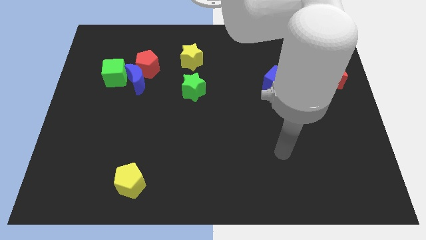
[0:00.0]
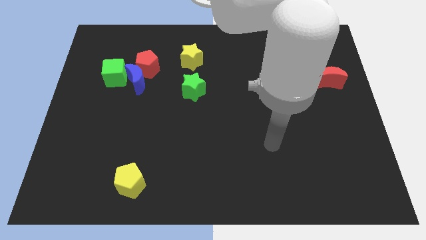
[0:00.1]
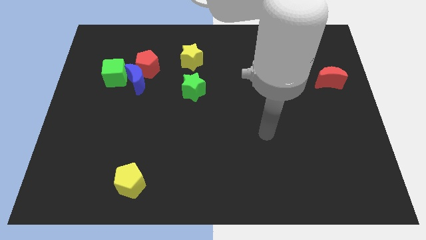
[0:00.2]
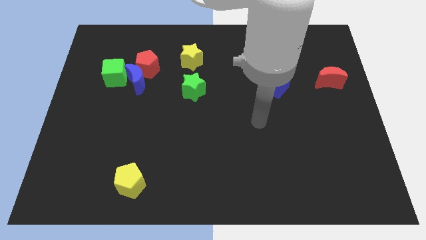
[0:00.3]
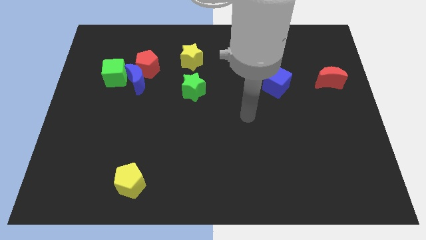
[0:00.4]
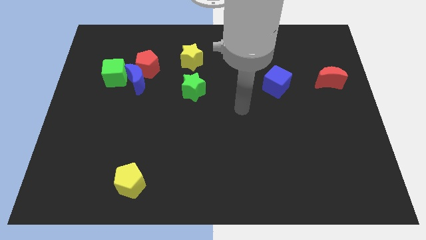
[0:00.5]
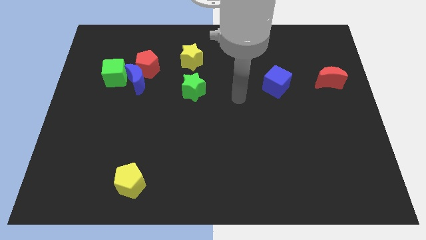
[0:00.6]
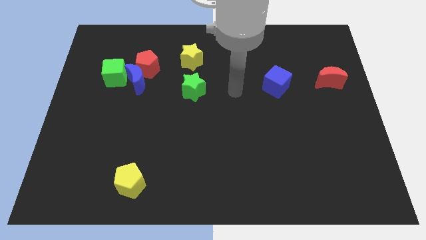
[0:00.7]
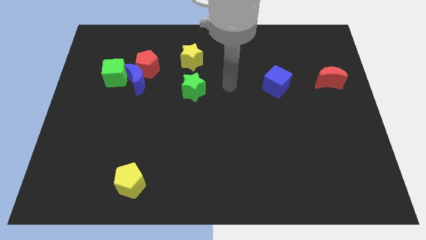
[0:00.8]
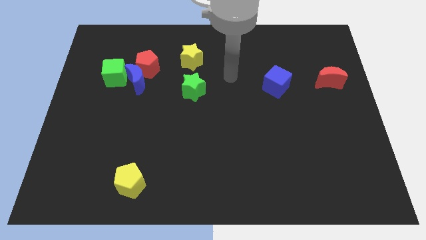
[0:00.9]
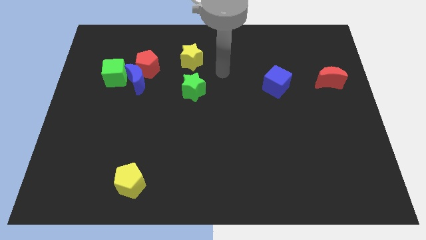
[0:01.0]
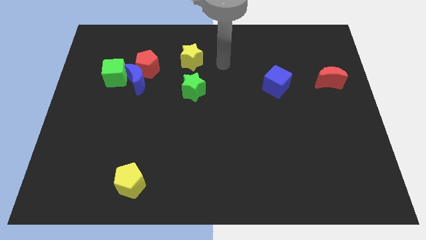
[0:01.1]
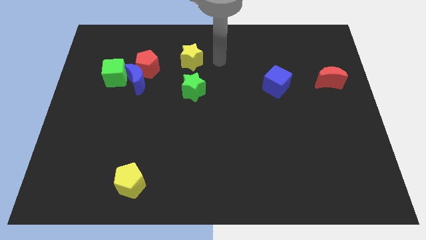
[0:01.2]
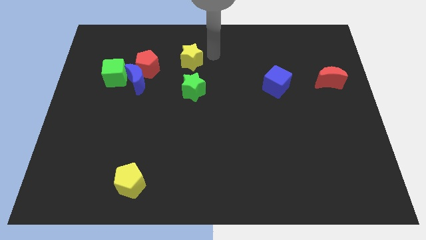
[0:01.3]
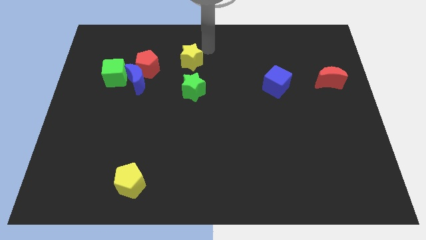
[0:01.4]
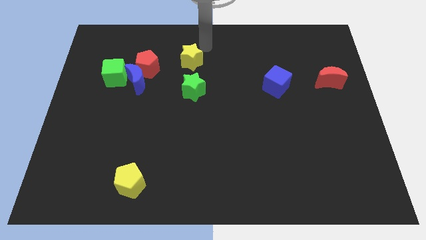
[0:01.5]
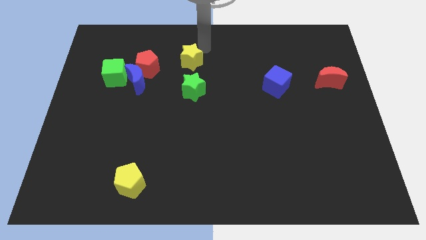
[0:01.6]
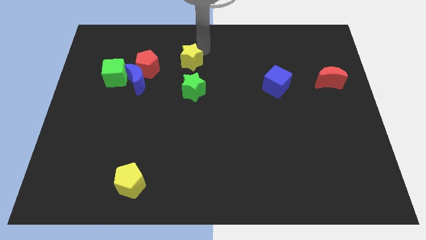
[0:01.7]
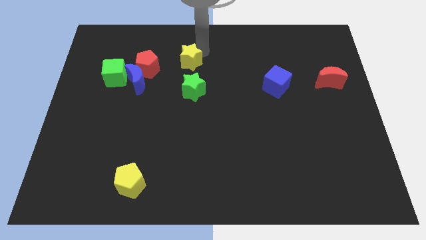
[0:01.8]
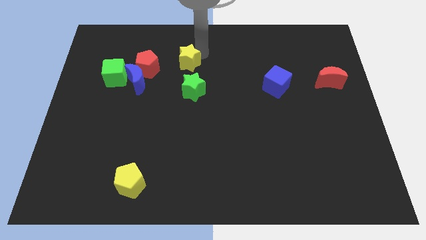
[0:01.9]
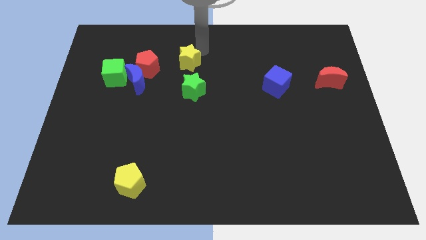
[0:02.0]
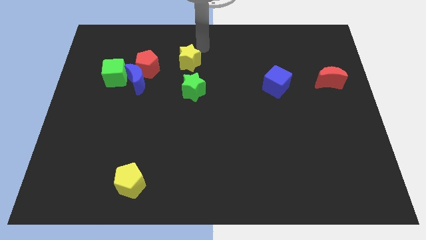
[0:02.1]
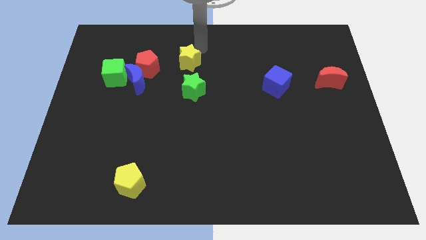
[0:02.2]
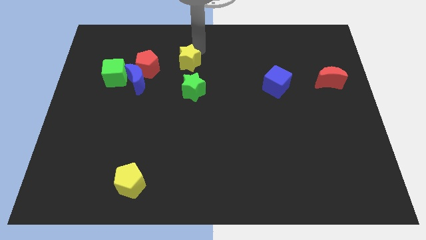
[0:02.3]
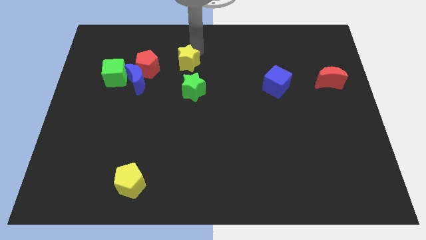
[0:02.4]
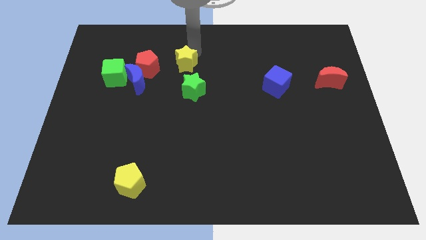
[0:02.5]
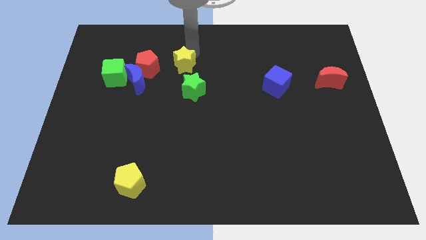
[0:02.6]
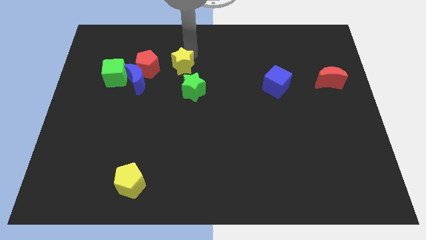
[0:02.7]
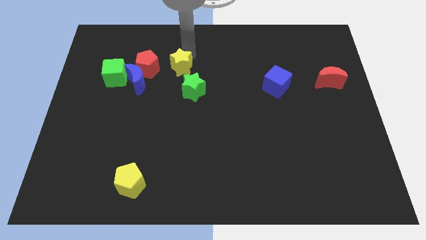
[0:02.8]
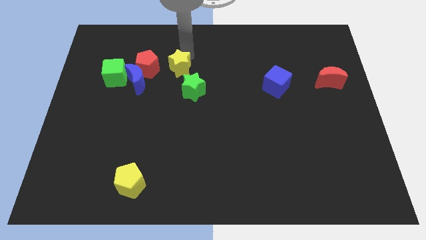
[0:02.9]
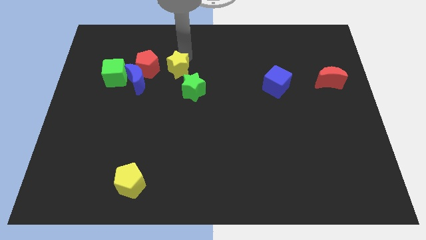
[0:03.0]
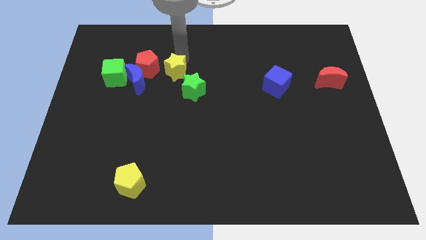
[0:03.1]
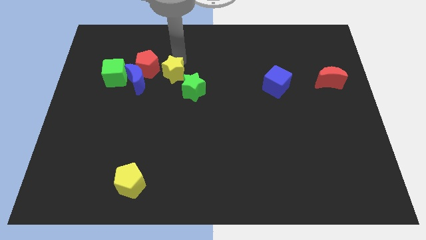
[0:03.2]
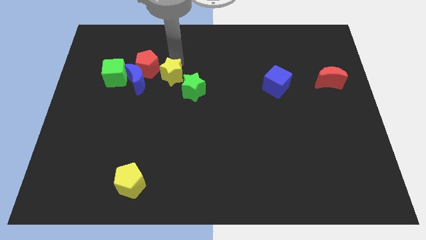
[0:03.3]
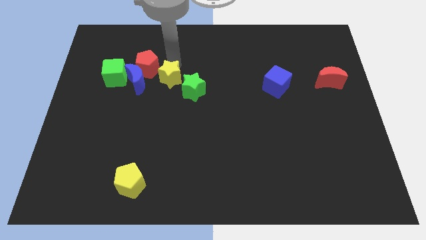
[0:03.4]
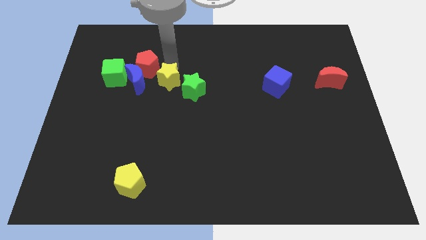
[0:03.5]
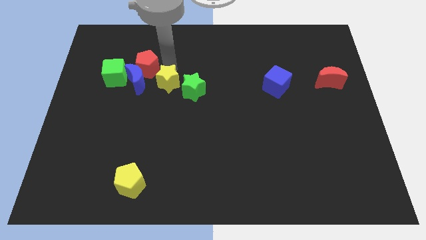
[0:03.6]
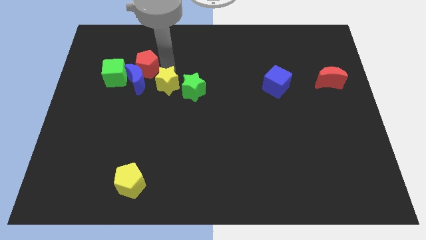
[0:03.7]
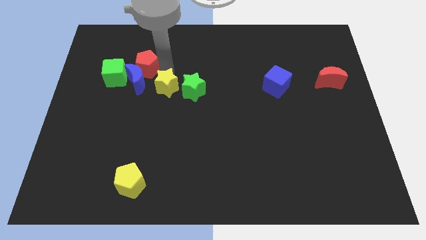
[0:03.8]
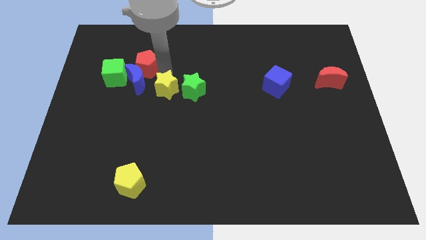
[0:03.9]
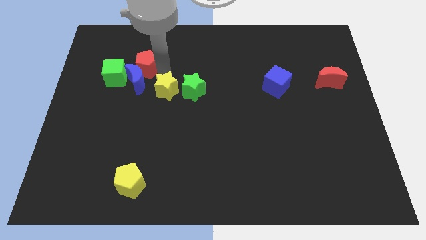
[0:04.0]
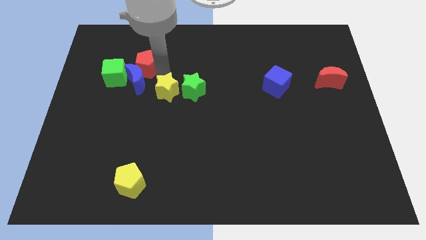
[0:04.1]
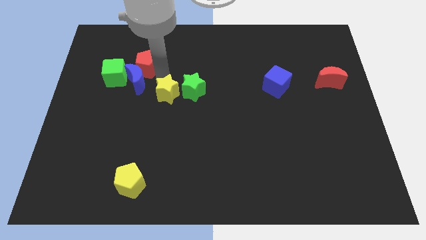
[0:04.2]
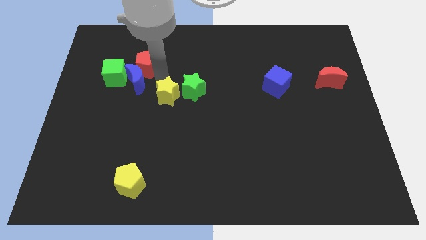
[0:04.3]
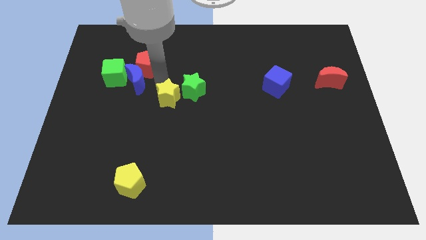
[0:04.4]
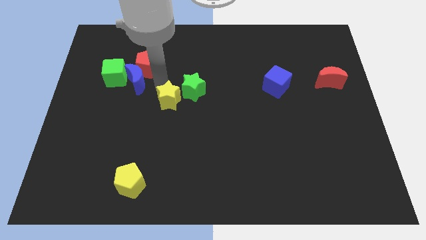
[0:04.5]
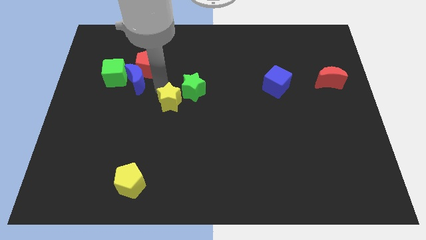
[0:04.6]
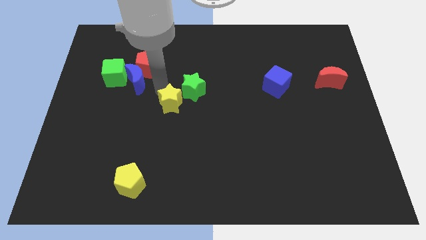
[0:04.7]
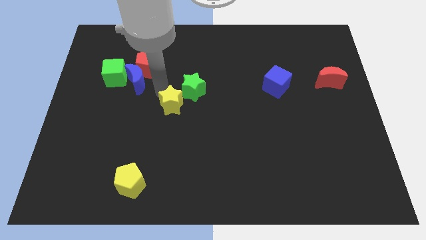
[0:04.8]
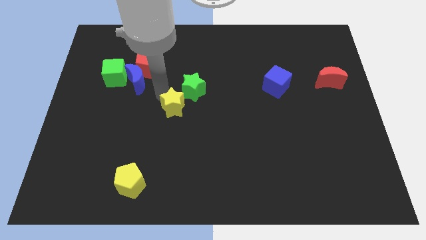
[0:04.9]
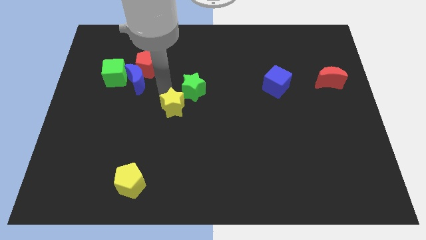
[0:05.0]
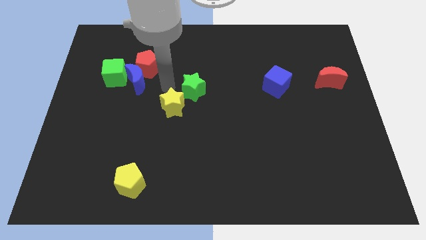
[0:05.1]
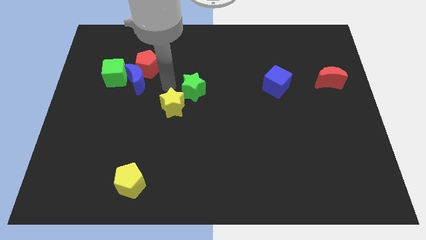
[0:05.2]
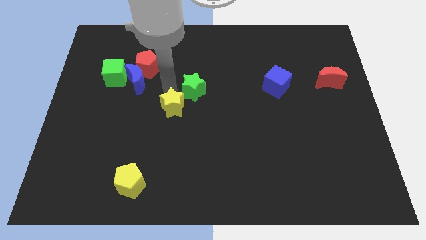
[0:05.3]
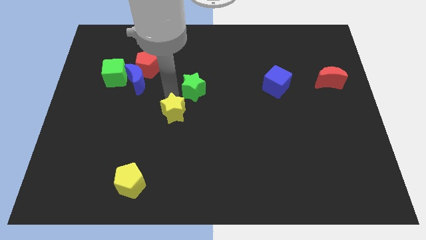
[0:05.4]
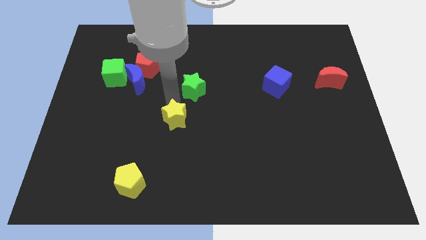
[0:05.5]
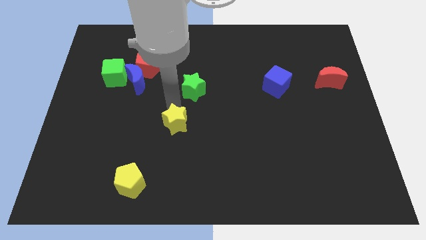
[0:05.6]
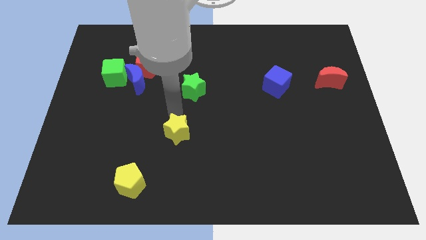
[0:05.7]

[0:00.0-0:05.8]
slide the yellow star downwards

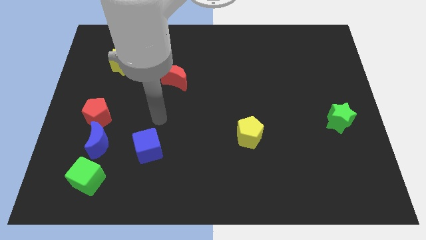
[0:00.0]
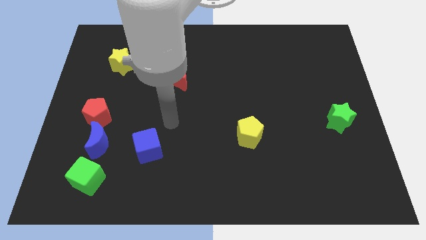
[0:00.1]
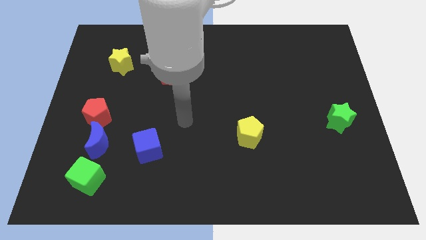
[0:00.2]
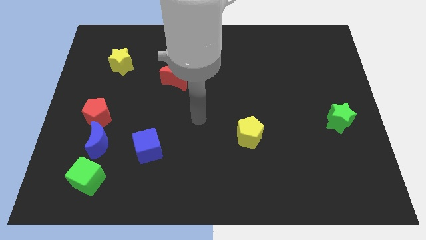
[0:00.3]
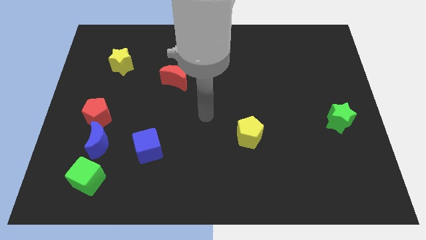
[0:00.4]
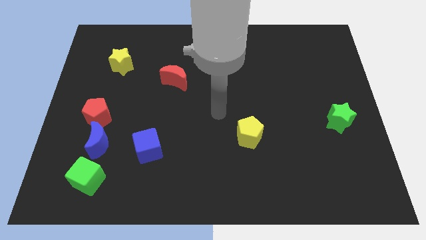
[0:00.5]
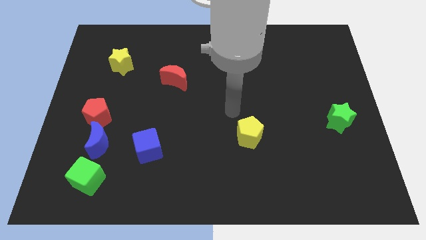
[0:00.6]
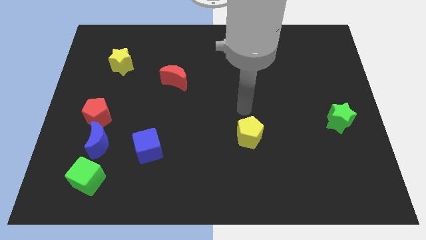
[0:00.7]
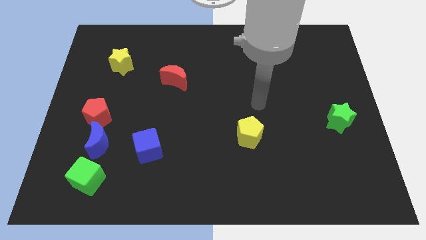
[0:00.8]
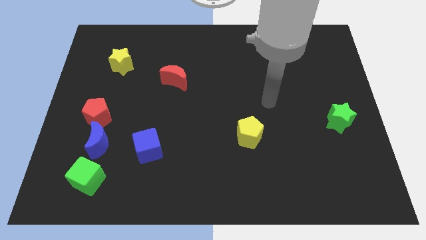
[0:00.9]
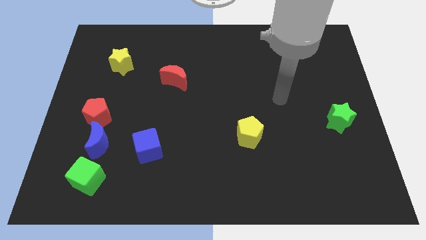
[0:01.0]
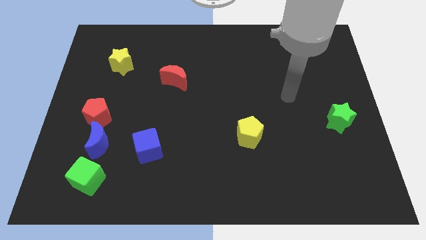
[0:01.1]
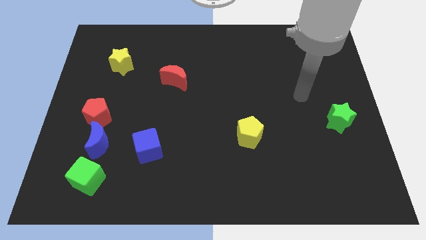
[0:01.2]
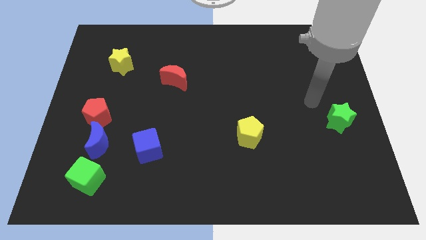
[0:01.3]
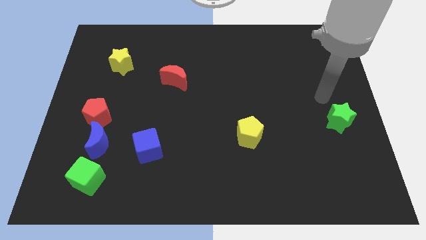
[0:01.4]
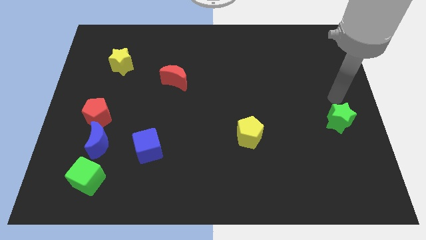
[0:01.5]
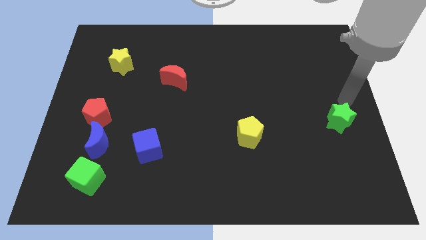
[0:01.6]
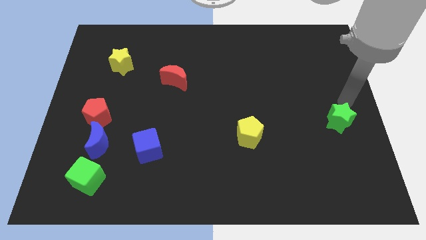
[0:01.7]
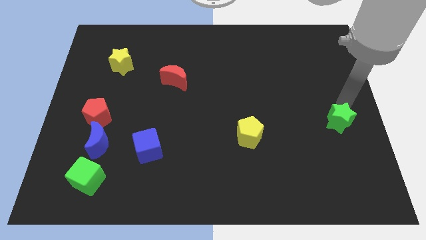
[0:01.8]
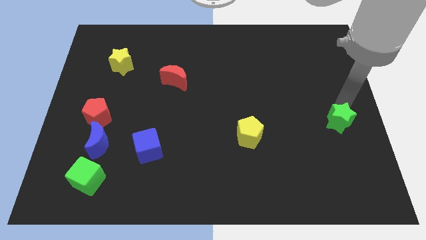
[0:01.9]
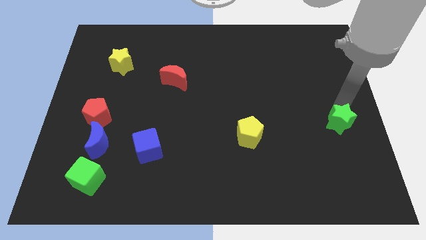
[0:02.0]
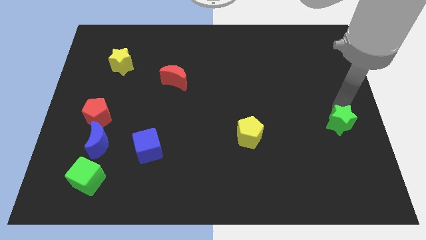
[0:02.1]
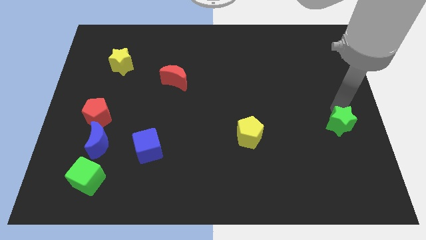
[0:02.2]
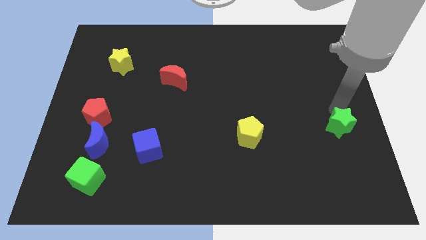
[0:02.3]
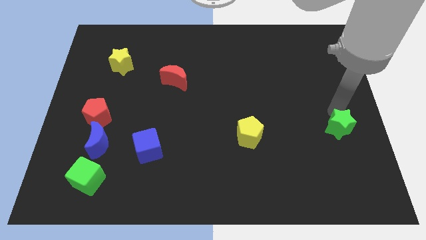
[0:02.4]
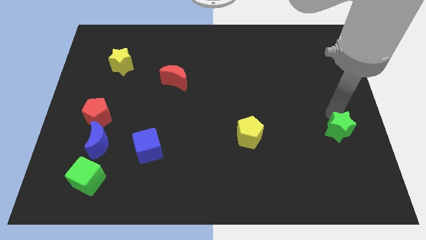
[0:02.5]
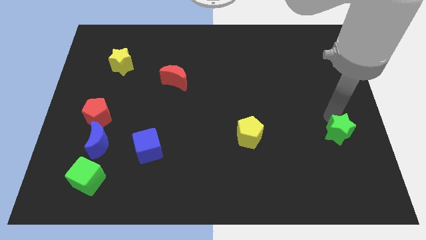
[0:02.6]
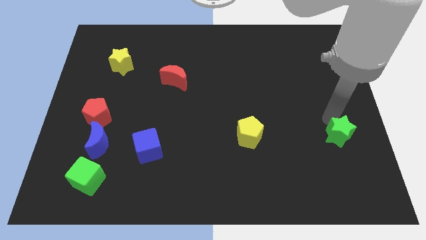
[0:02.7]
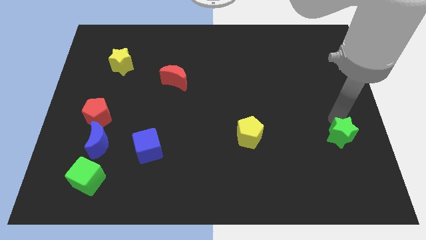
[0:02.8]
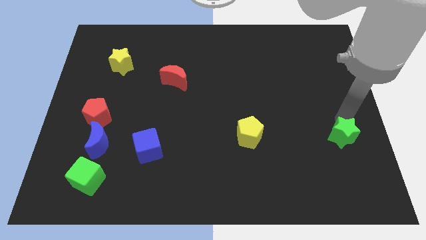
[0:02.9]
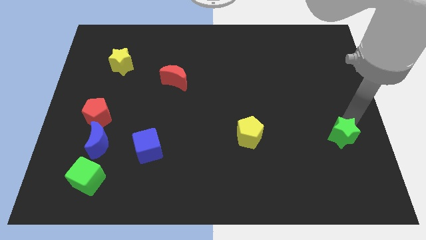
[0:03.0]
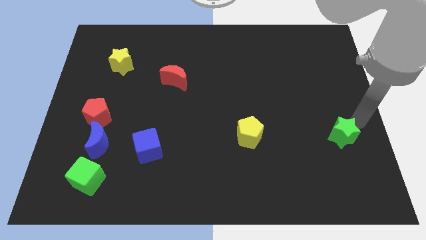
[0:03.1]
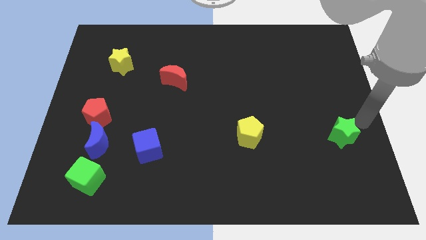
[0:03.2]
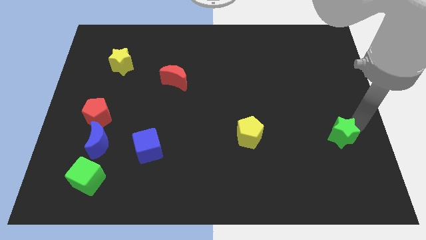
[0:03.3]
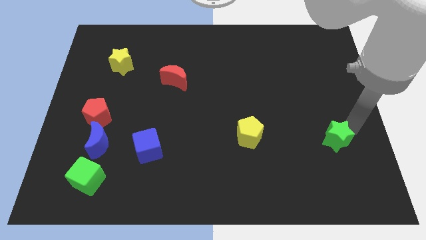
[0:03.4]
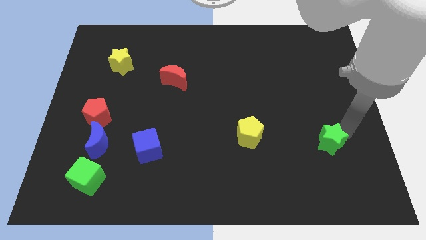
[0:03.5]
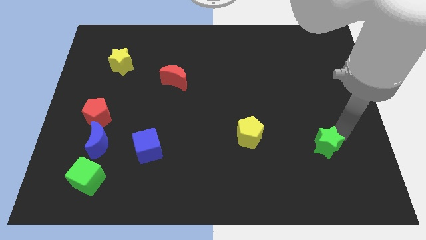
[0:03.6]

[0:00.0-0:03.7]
slightly push the green star downwards and to the left diagonally
